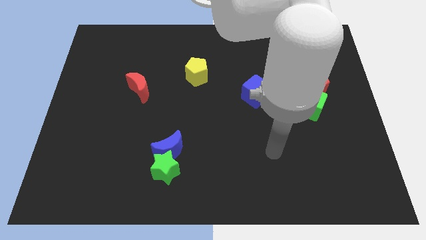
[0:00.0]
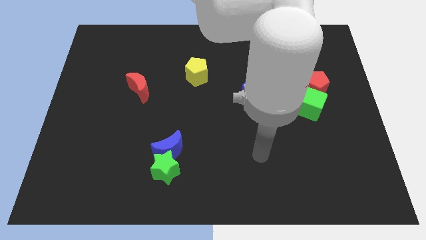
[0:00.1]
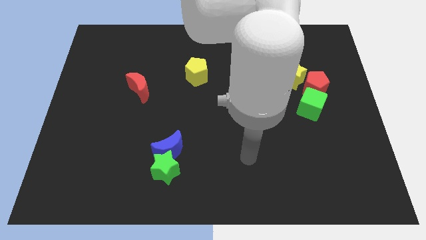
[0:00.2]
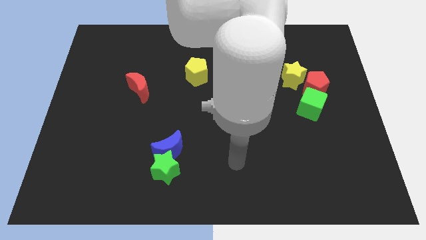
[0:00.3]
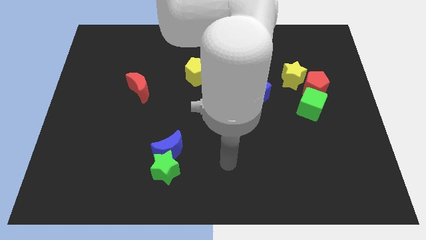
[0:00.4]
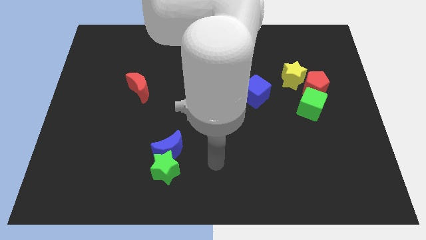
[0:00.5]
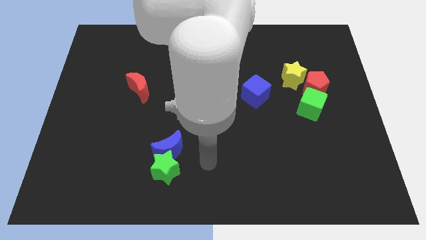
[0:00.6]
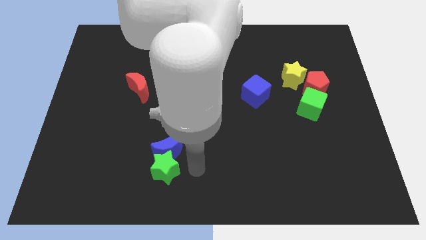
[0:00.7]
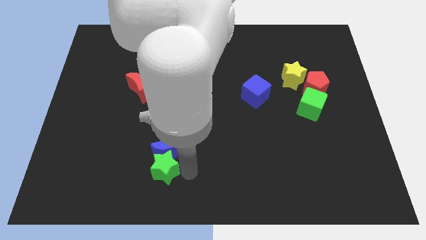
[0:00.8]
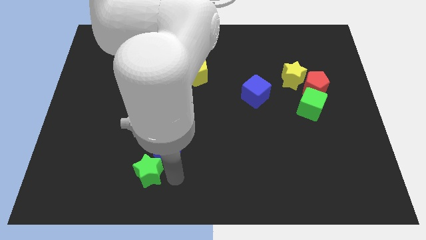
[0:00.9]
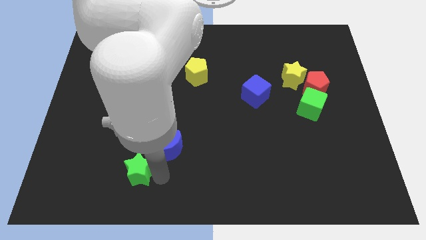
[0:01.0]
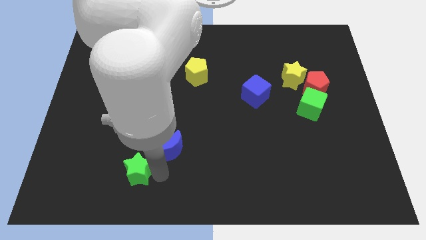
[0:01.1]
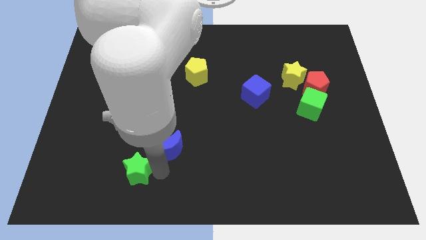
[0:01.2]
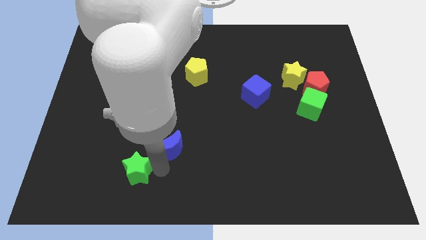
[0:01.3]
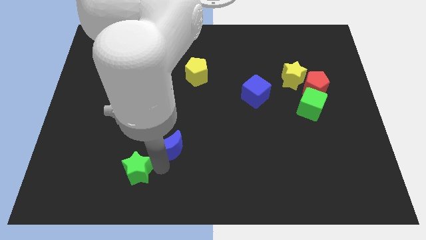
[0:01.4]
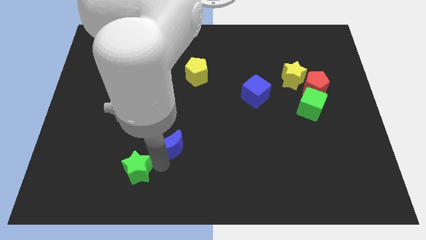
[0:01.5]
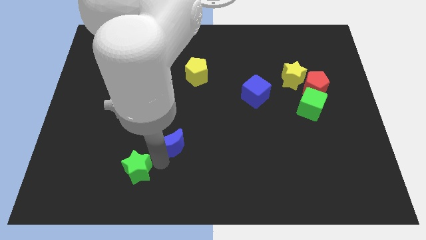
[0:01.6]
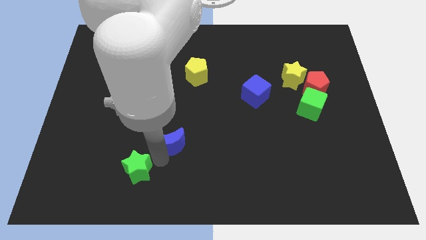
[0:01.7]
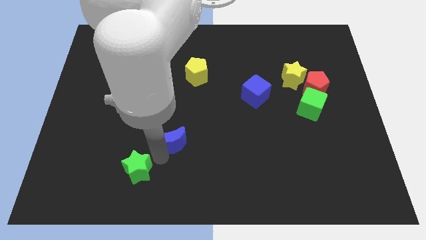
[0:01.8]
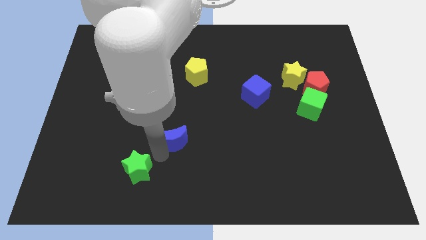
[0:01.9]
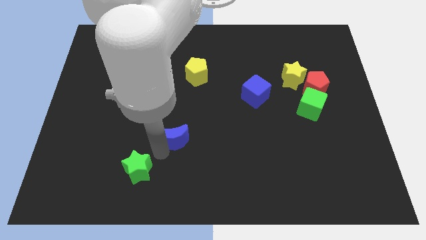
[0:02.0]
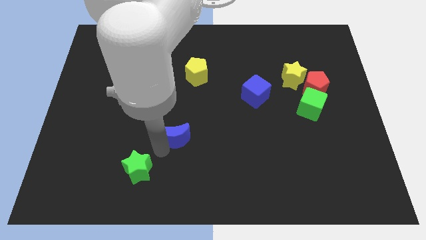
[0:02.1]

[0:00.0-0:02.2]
move the blue moon away from the green star

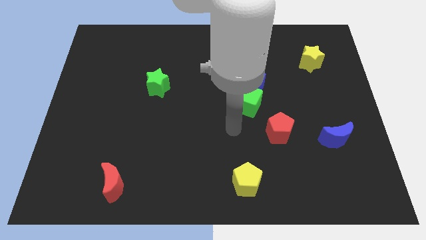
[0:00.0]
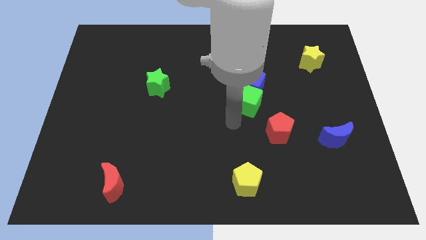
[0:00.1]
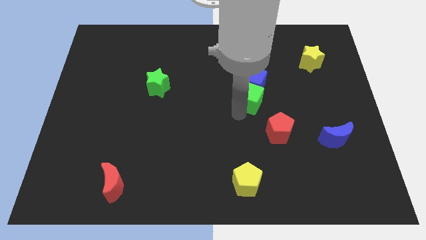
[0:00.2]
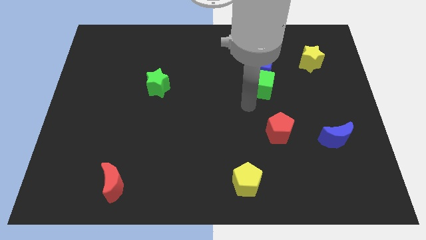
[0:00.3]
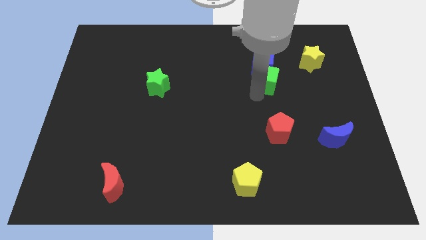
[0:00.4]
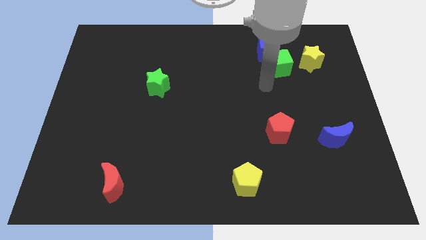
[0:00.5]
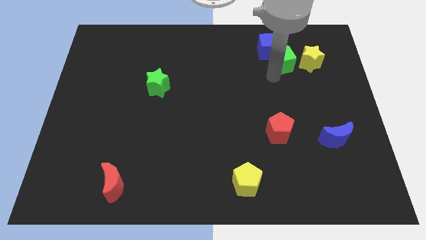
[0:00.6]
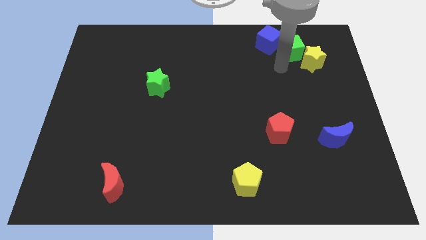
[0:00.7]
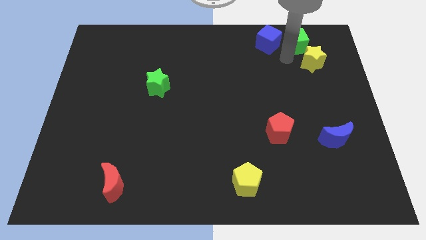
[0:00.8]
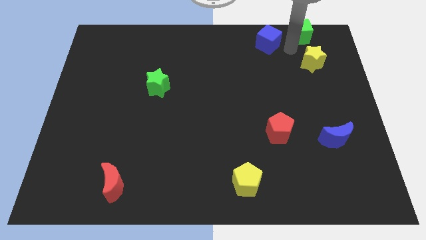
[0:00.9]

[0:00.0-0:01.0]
separate the blue cube from the green cube

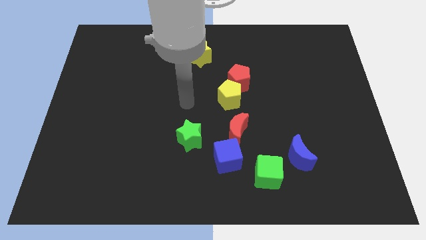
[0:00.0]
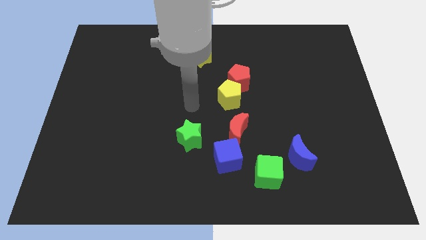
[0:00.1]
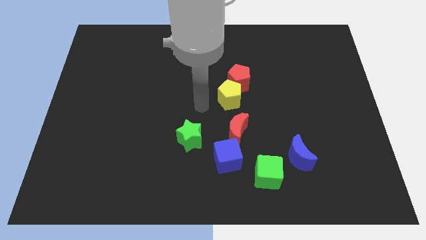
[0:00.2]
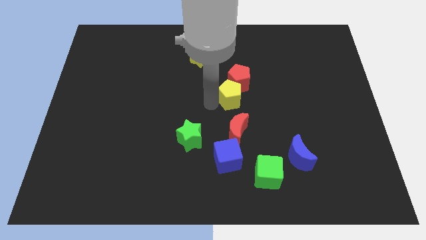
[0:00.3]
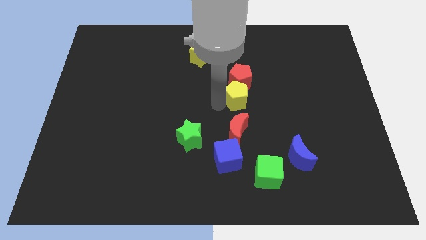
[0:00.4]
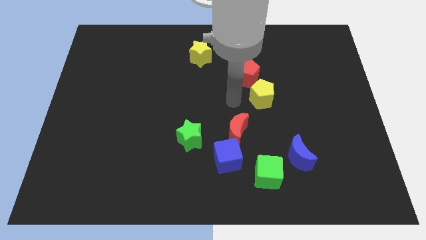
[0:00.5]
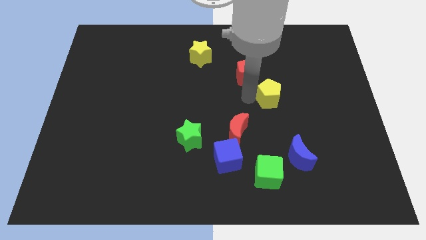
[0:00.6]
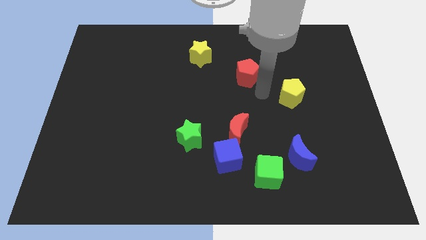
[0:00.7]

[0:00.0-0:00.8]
move the red pentagon away from the yellow pentagon

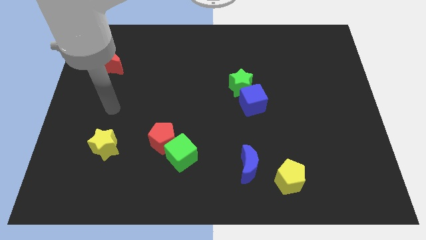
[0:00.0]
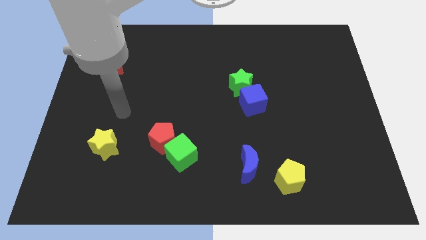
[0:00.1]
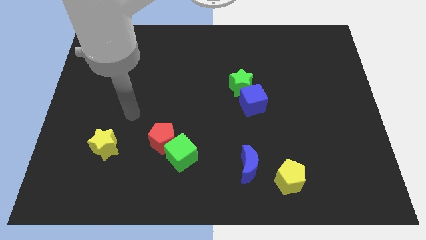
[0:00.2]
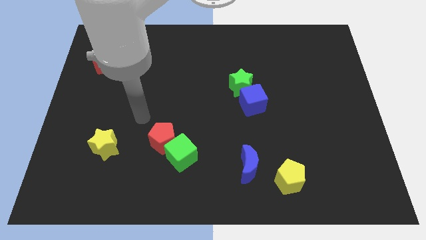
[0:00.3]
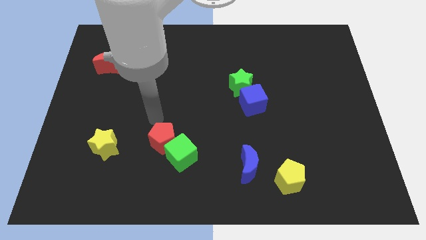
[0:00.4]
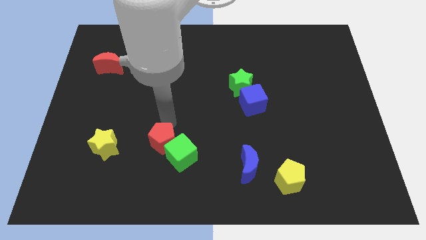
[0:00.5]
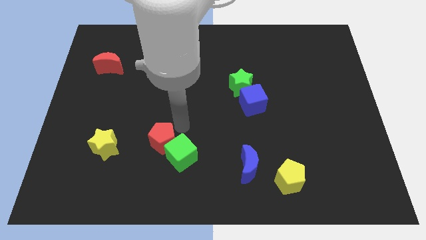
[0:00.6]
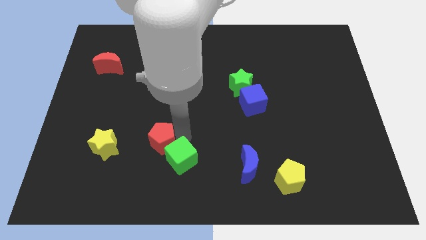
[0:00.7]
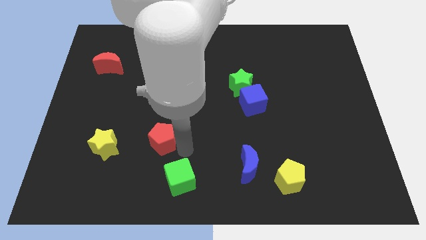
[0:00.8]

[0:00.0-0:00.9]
pull the red pentagon apart from the green cube

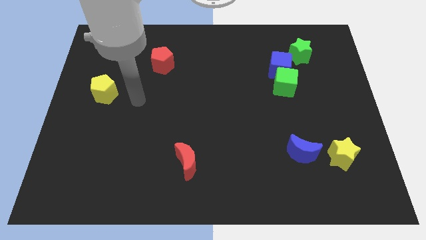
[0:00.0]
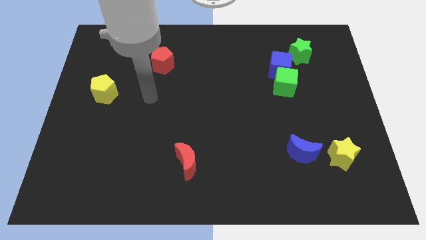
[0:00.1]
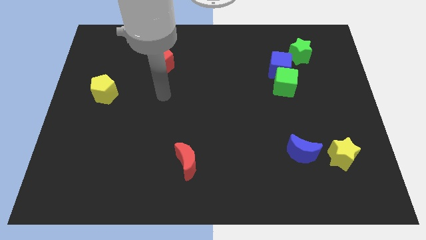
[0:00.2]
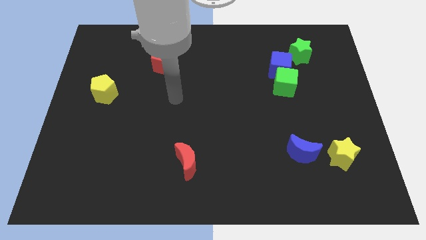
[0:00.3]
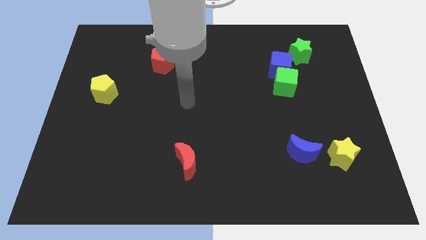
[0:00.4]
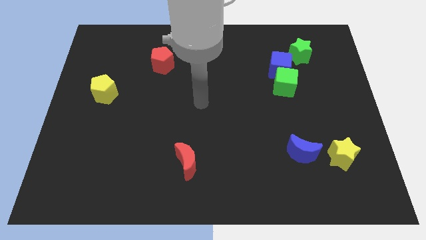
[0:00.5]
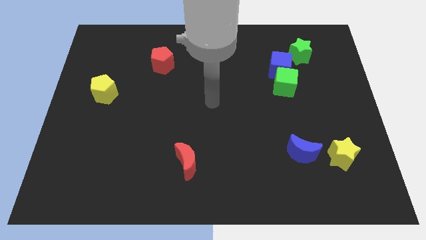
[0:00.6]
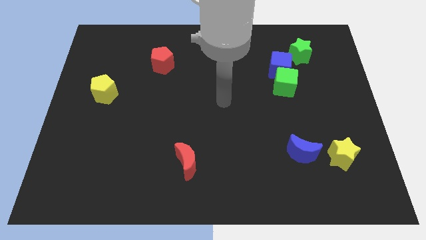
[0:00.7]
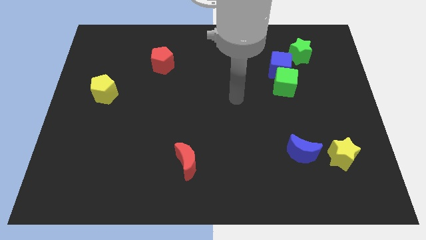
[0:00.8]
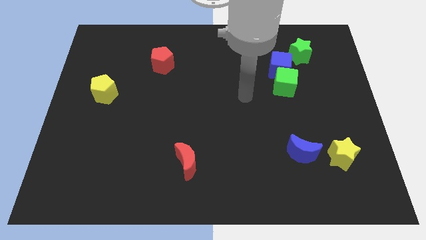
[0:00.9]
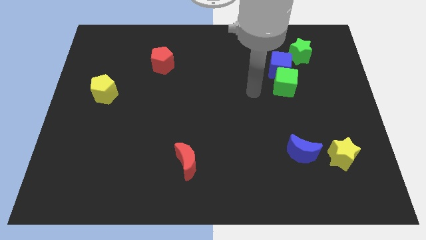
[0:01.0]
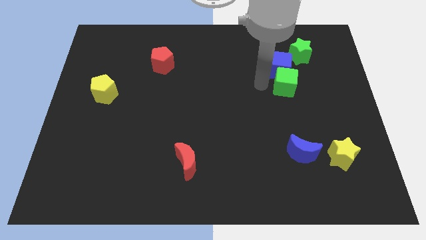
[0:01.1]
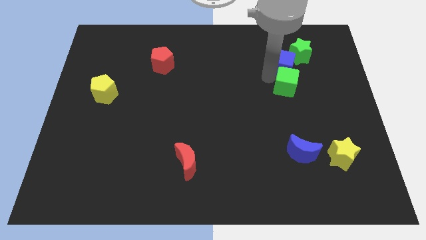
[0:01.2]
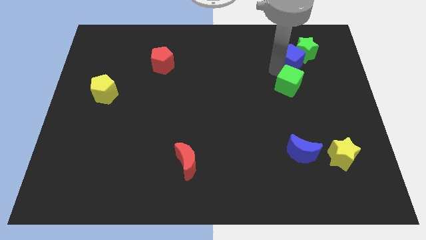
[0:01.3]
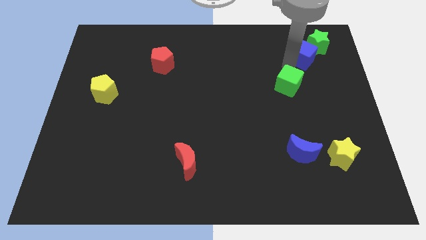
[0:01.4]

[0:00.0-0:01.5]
separate the green cube from the blue cube

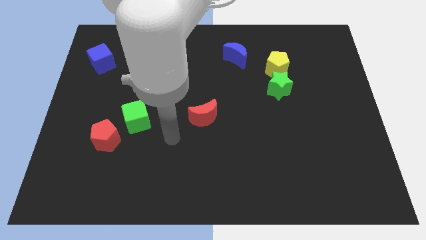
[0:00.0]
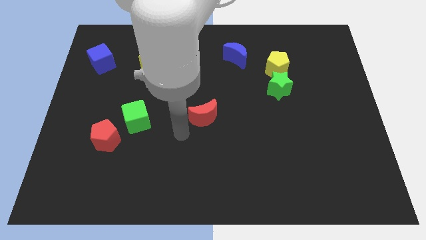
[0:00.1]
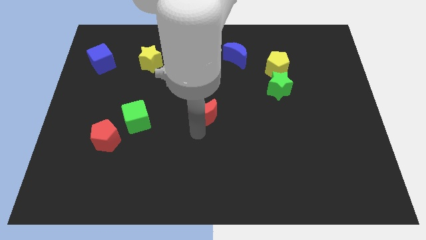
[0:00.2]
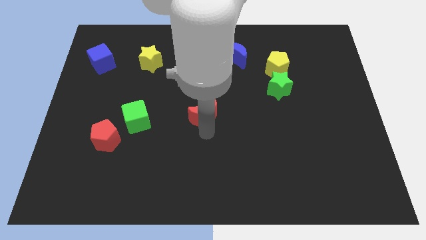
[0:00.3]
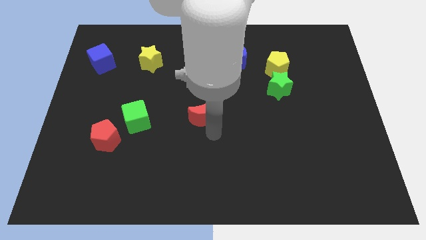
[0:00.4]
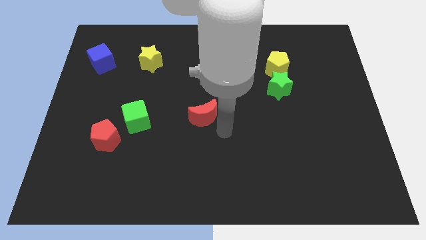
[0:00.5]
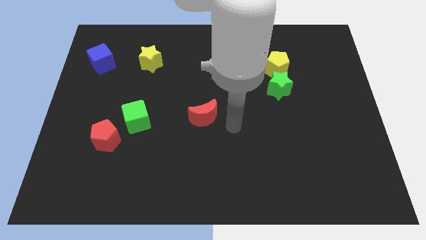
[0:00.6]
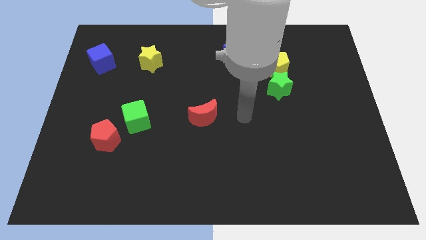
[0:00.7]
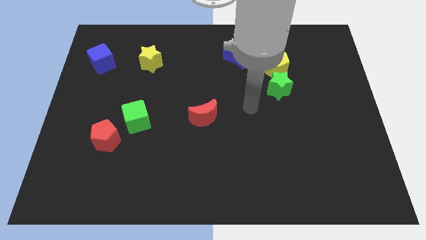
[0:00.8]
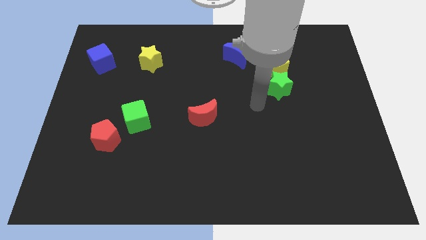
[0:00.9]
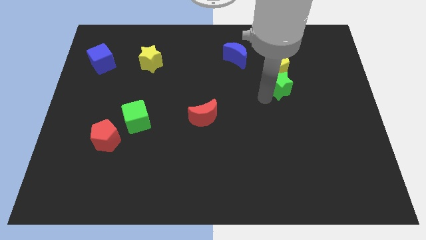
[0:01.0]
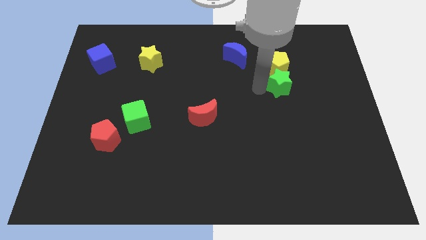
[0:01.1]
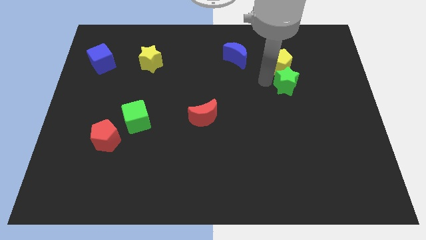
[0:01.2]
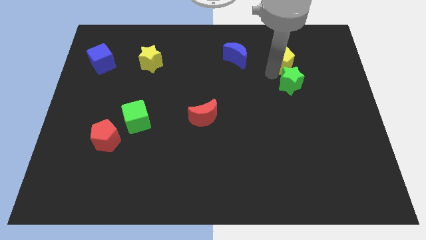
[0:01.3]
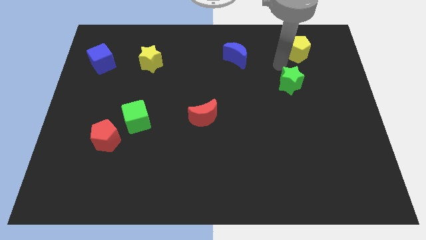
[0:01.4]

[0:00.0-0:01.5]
separate the green star from the yellow pentagon

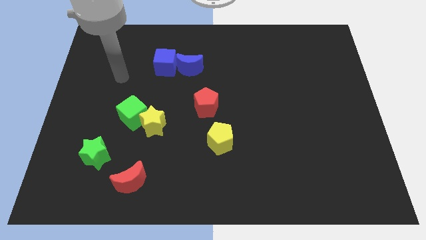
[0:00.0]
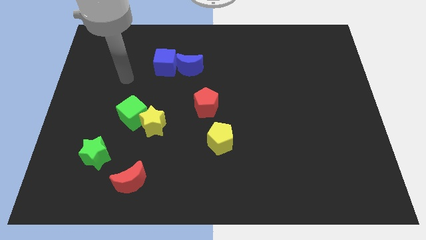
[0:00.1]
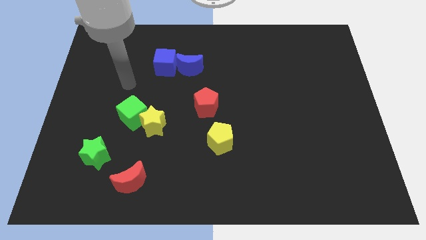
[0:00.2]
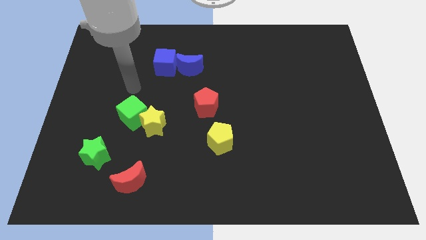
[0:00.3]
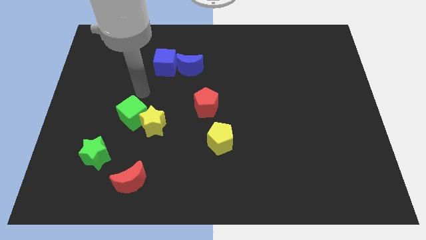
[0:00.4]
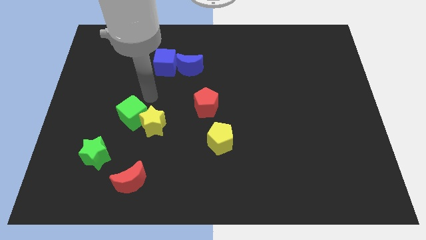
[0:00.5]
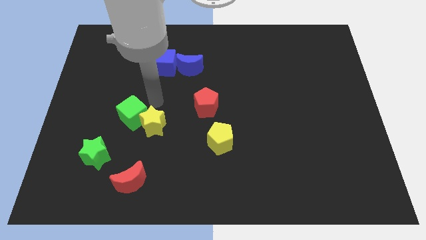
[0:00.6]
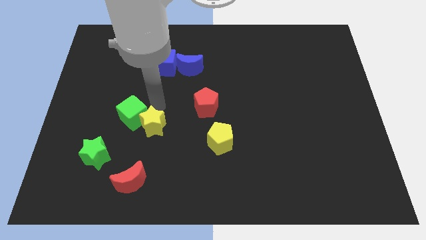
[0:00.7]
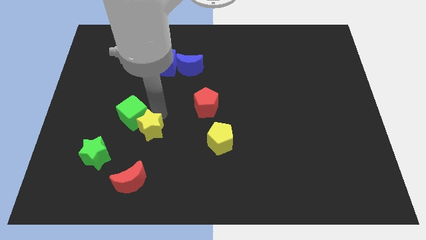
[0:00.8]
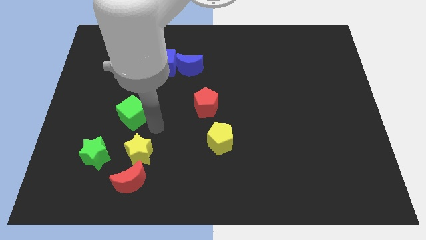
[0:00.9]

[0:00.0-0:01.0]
separate the green cube from the yellow star

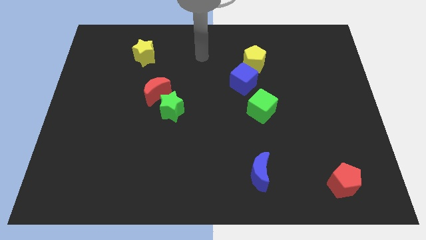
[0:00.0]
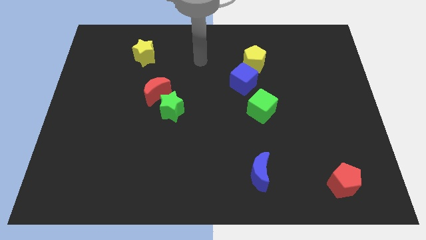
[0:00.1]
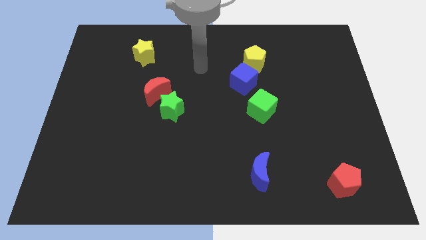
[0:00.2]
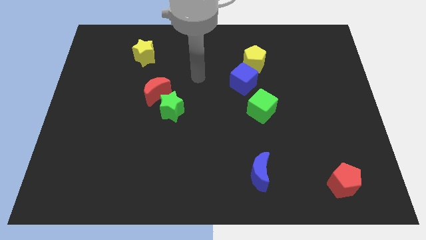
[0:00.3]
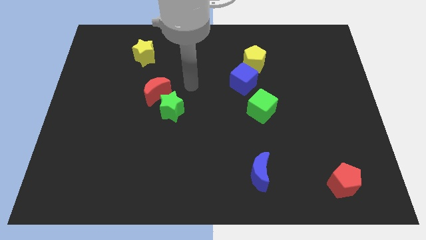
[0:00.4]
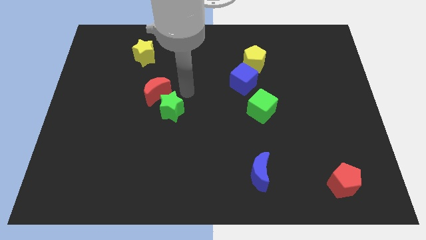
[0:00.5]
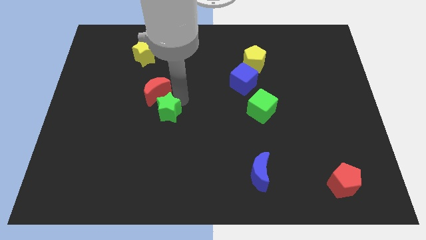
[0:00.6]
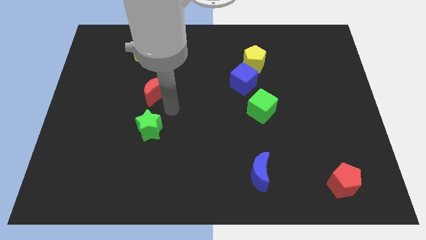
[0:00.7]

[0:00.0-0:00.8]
separate the red moon from the green star
